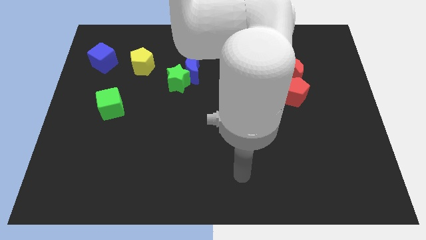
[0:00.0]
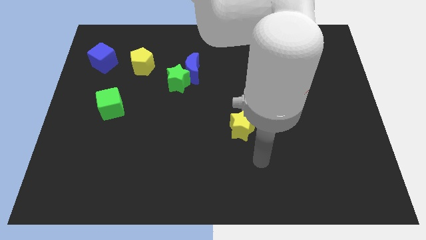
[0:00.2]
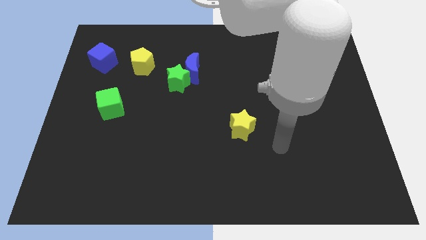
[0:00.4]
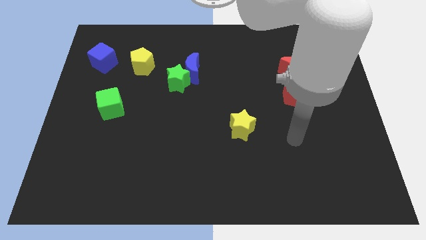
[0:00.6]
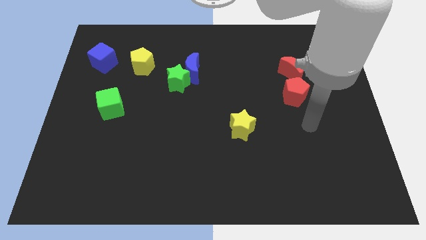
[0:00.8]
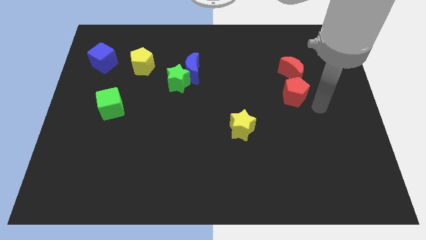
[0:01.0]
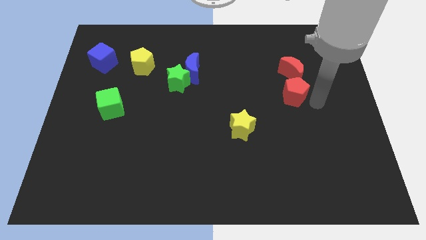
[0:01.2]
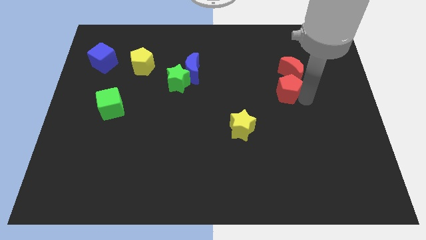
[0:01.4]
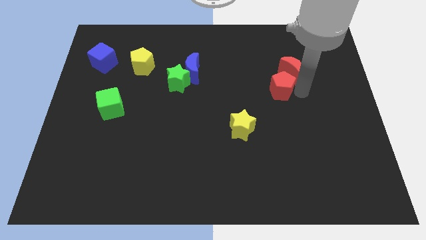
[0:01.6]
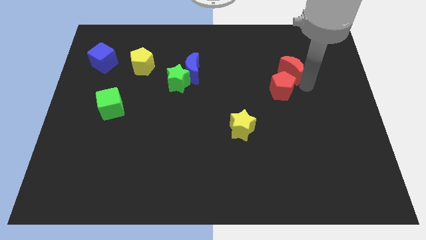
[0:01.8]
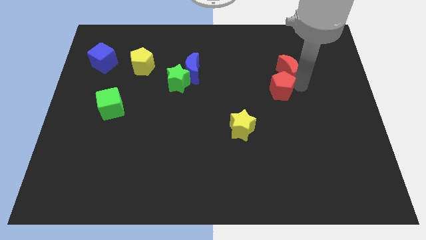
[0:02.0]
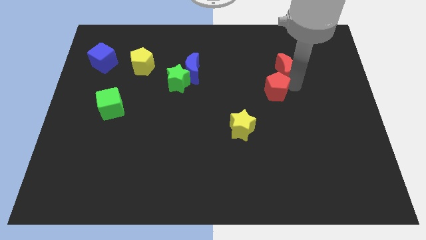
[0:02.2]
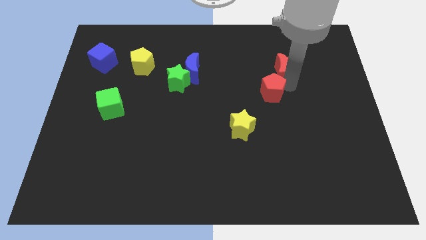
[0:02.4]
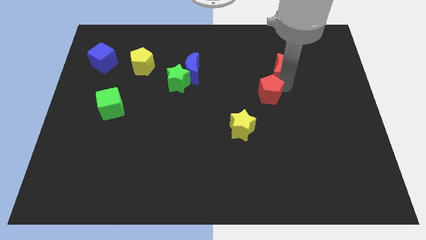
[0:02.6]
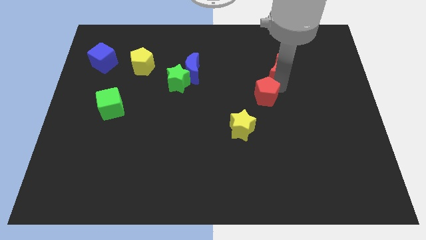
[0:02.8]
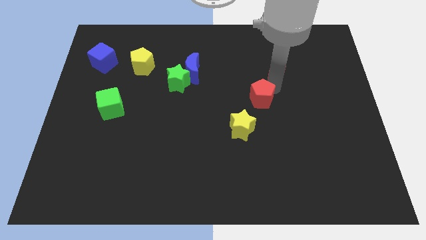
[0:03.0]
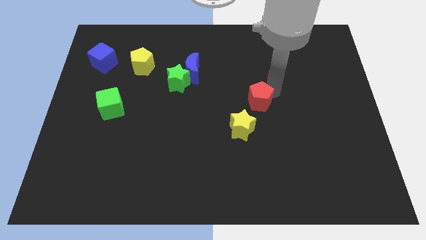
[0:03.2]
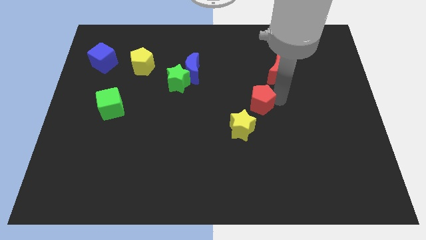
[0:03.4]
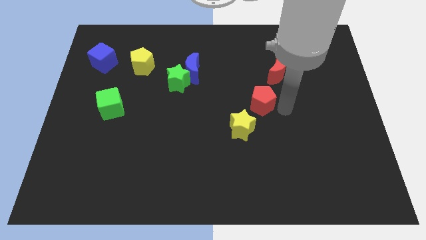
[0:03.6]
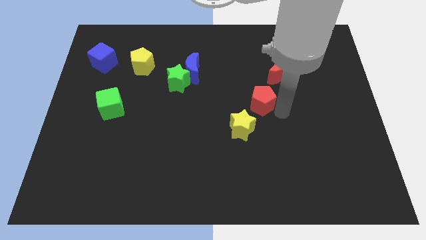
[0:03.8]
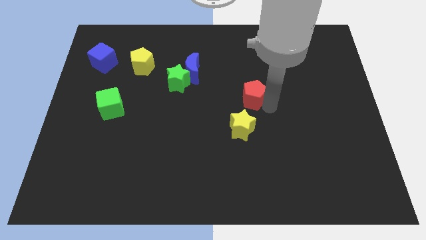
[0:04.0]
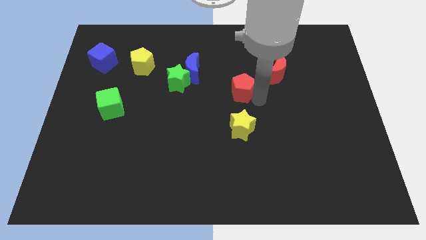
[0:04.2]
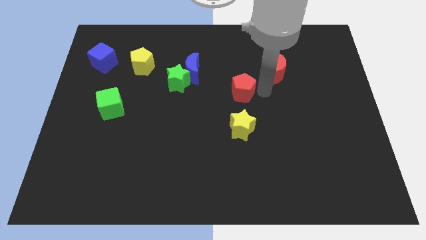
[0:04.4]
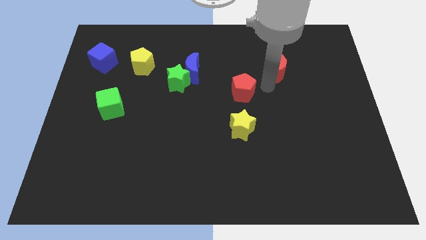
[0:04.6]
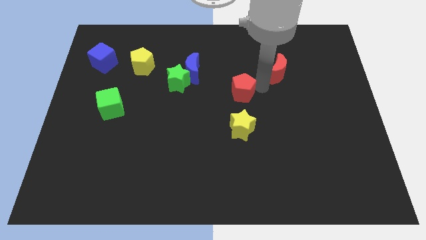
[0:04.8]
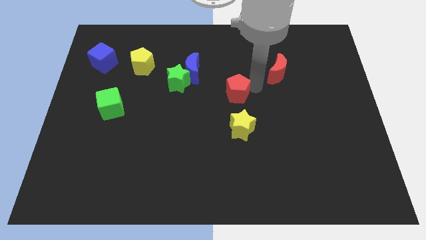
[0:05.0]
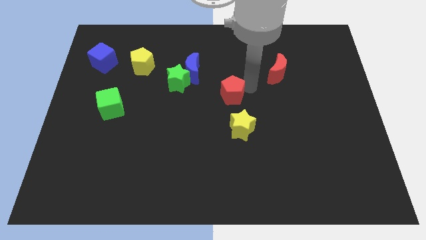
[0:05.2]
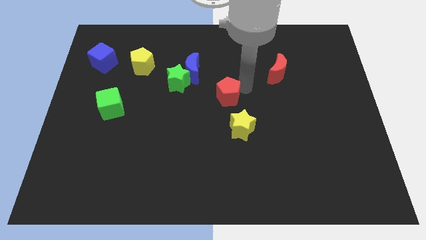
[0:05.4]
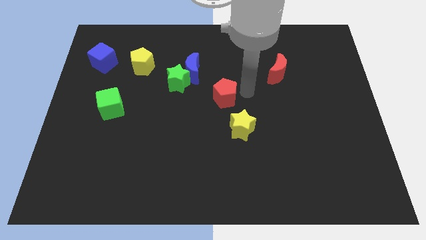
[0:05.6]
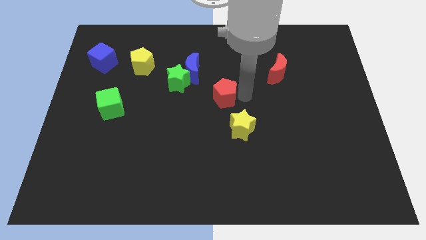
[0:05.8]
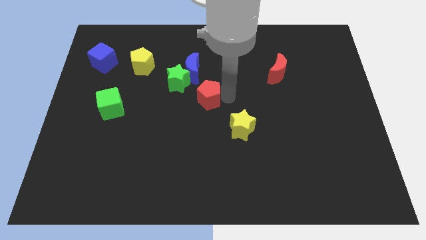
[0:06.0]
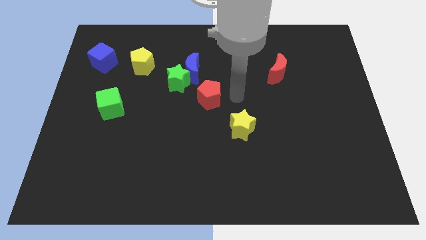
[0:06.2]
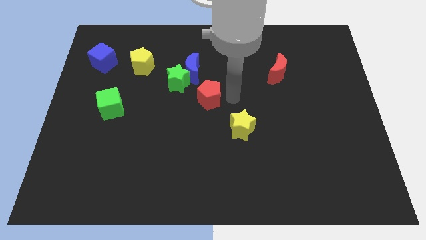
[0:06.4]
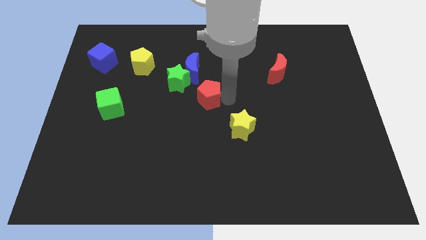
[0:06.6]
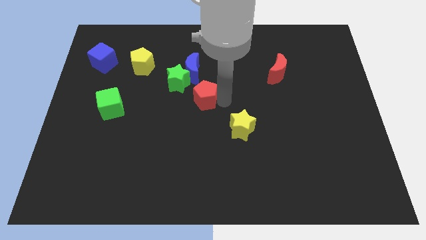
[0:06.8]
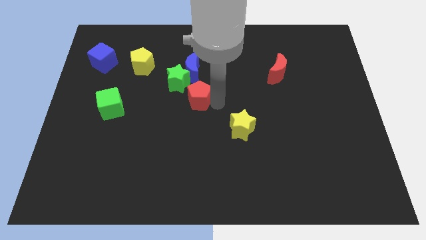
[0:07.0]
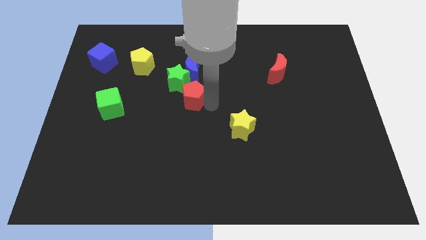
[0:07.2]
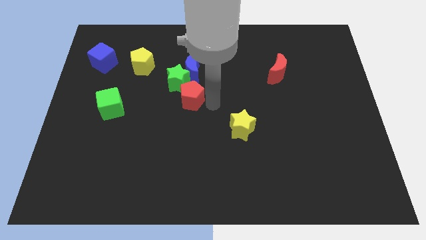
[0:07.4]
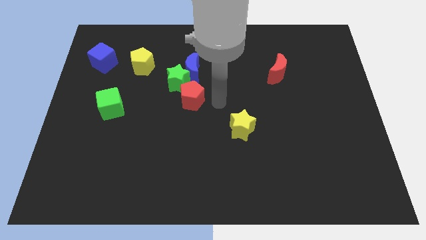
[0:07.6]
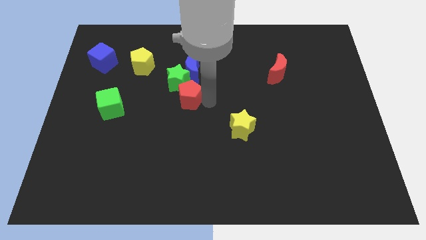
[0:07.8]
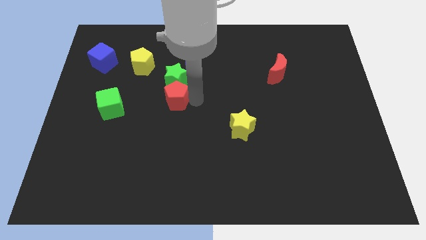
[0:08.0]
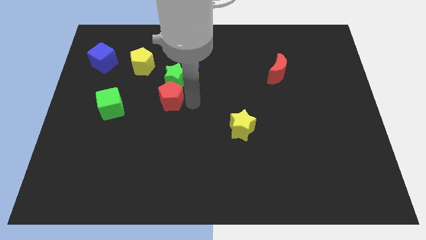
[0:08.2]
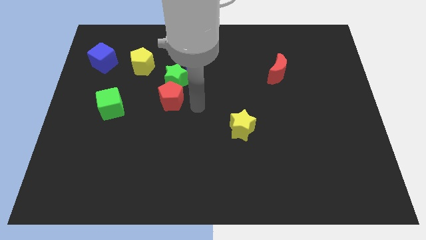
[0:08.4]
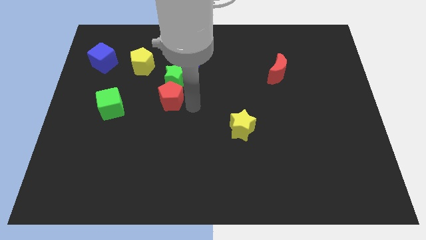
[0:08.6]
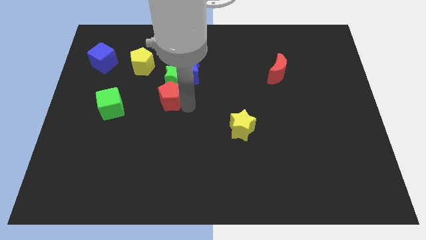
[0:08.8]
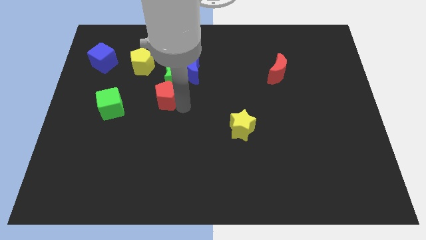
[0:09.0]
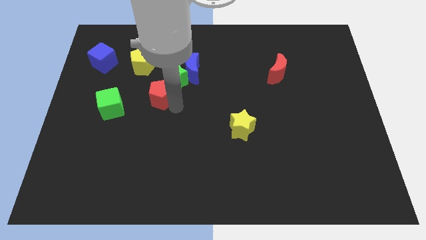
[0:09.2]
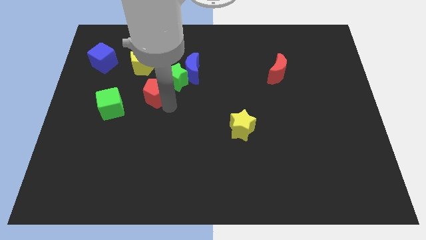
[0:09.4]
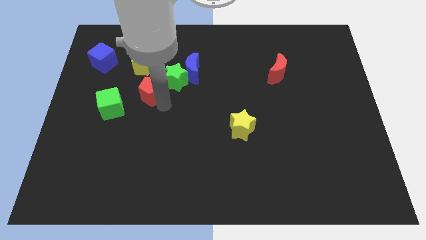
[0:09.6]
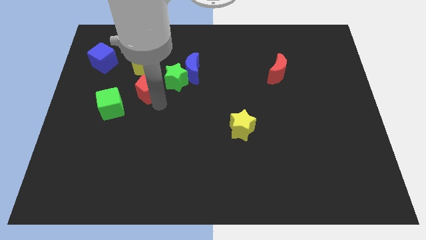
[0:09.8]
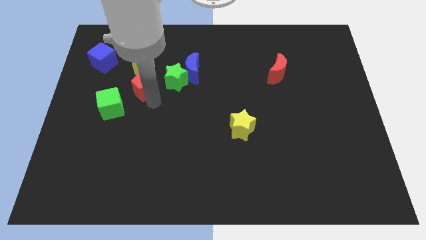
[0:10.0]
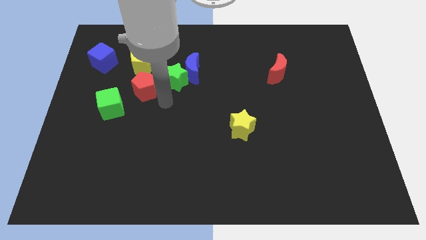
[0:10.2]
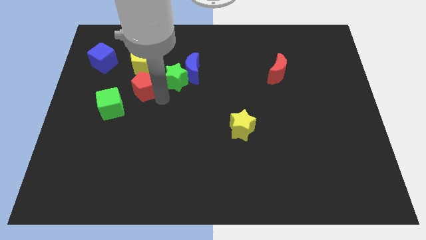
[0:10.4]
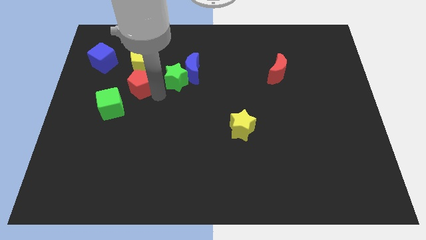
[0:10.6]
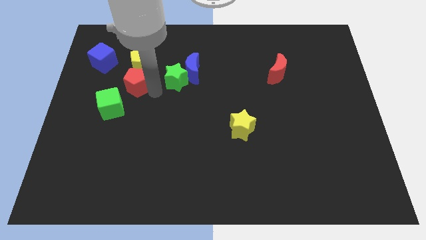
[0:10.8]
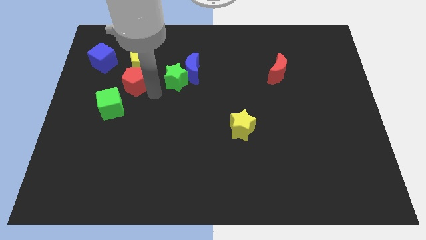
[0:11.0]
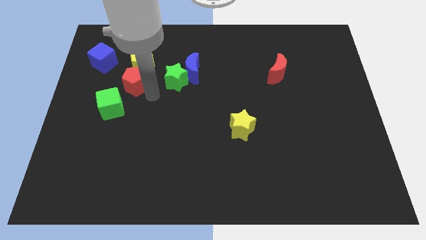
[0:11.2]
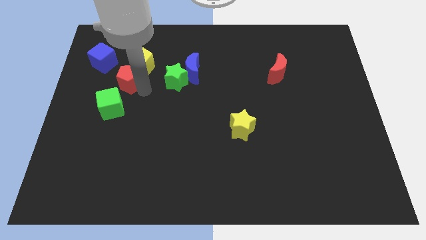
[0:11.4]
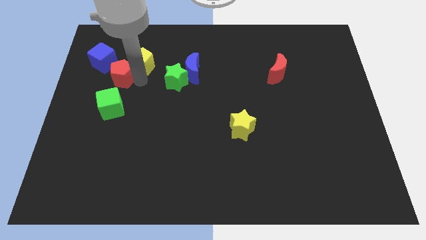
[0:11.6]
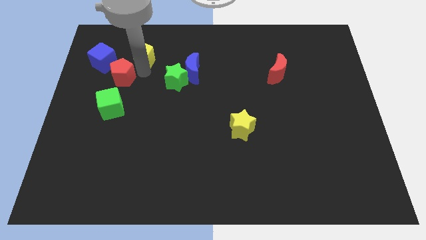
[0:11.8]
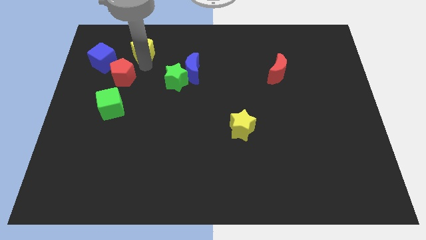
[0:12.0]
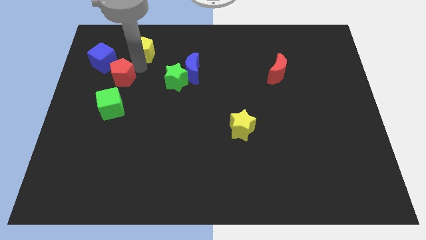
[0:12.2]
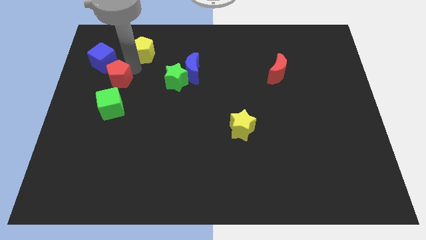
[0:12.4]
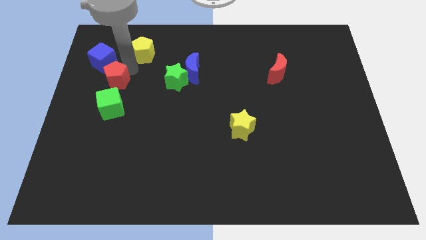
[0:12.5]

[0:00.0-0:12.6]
put the red pentagon below the blue cube

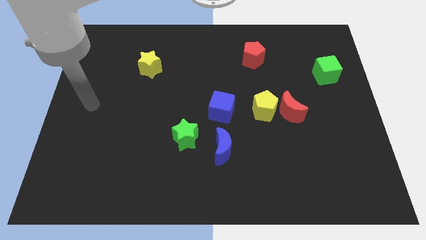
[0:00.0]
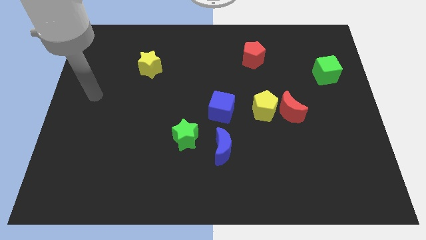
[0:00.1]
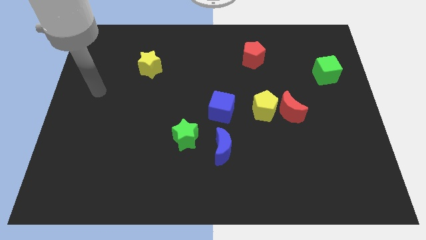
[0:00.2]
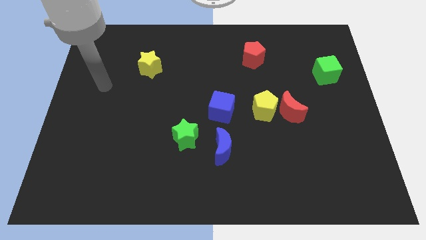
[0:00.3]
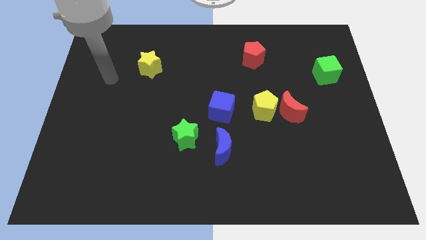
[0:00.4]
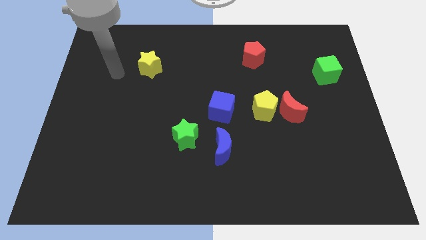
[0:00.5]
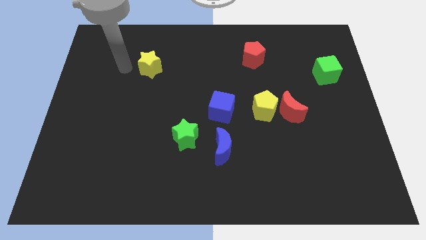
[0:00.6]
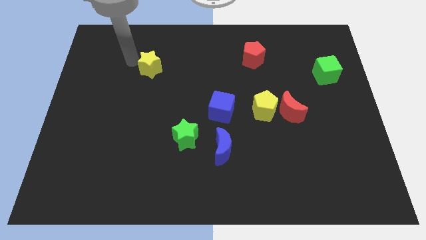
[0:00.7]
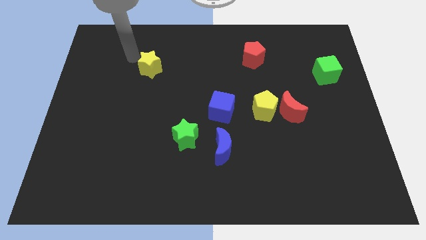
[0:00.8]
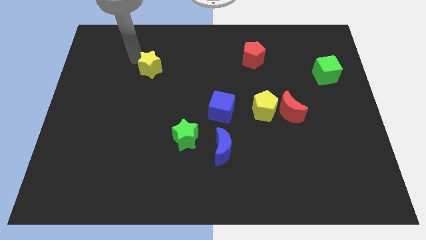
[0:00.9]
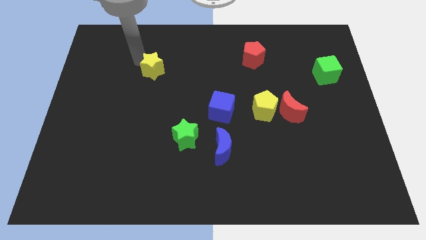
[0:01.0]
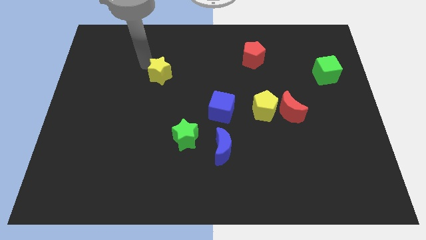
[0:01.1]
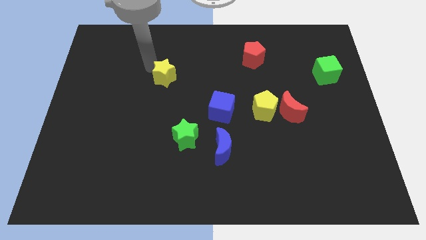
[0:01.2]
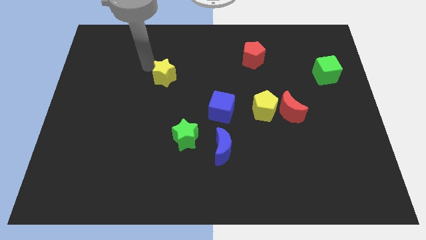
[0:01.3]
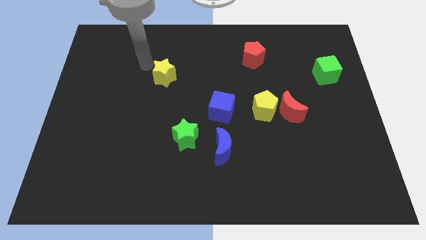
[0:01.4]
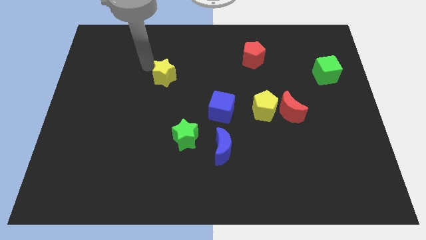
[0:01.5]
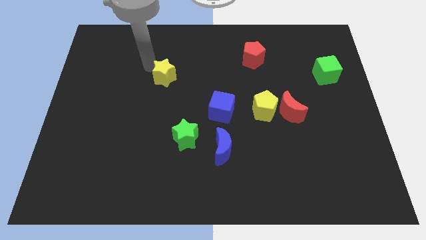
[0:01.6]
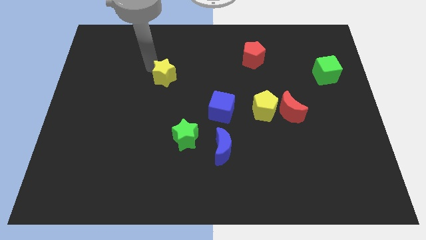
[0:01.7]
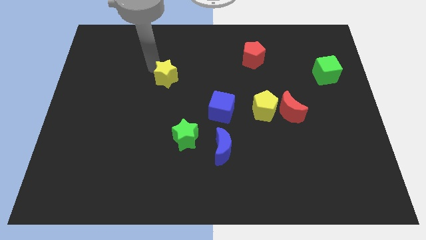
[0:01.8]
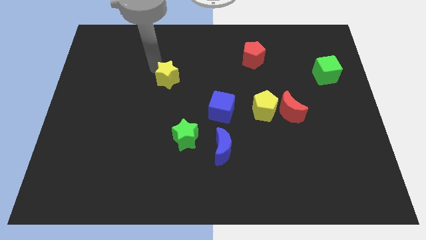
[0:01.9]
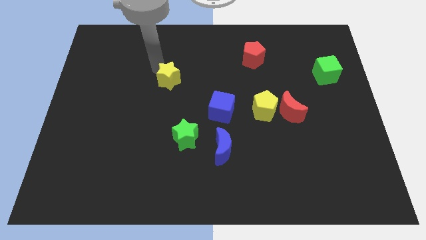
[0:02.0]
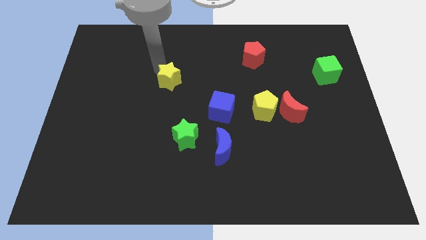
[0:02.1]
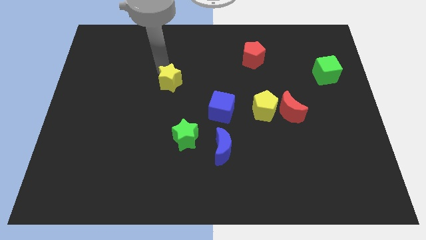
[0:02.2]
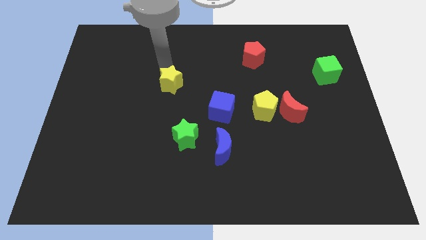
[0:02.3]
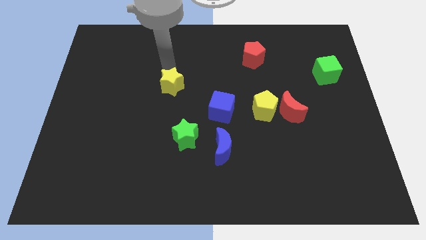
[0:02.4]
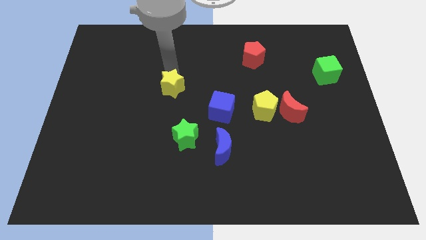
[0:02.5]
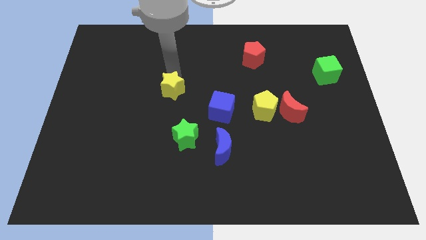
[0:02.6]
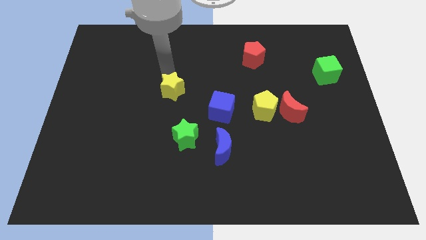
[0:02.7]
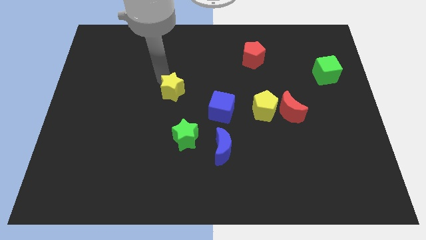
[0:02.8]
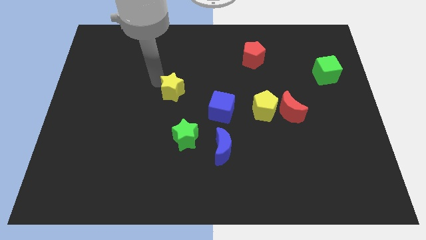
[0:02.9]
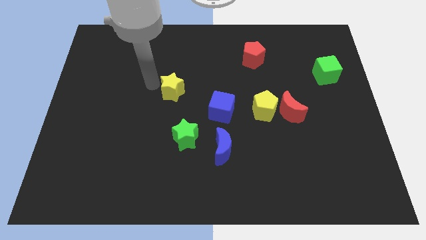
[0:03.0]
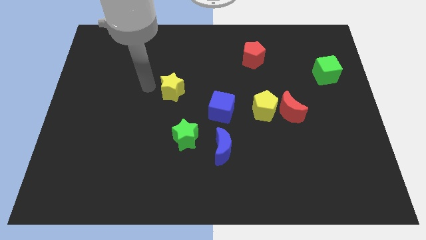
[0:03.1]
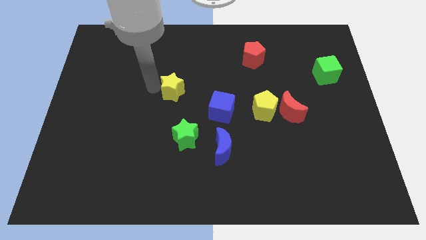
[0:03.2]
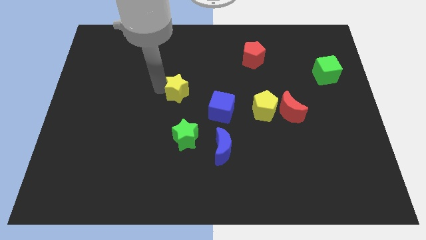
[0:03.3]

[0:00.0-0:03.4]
push the yellow star to the top left of the blue cube
